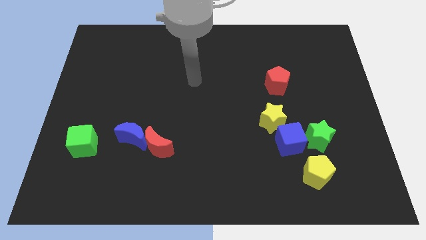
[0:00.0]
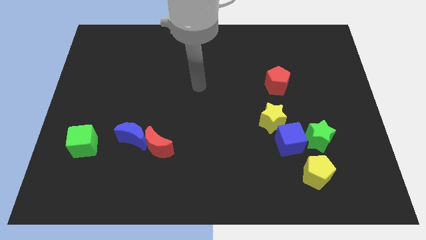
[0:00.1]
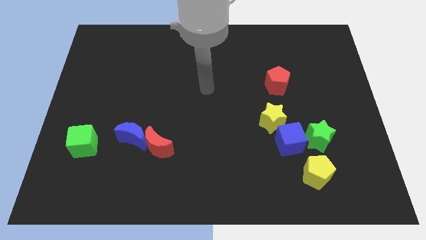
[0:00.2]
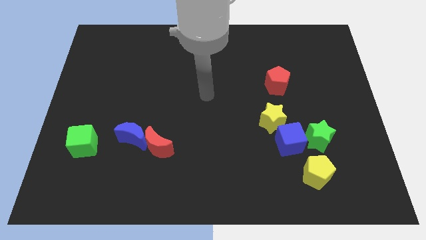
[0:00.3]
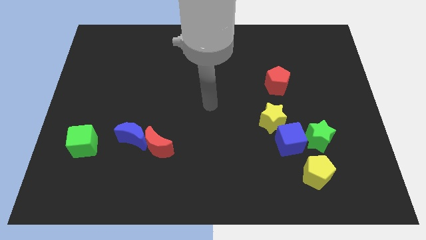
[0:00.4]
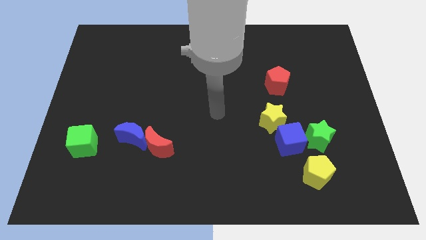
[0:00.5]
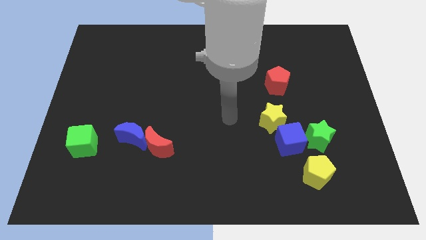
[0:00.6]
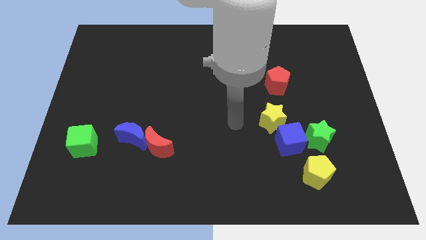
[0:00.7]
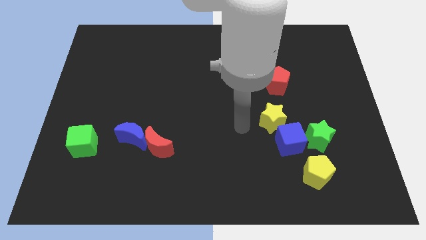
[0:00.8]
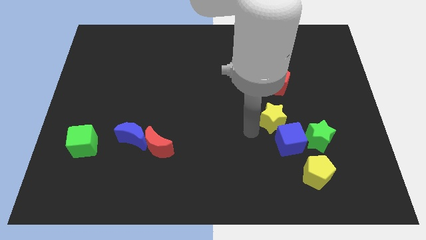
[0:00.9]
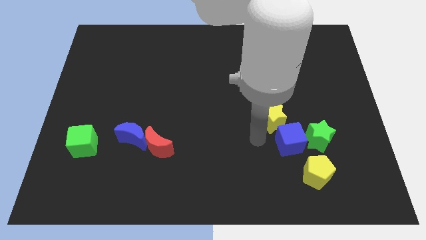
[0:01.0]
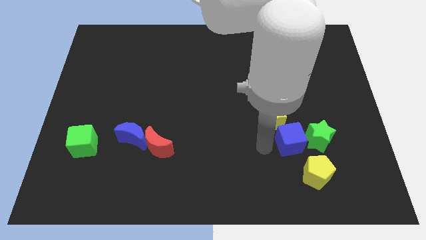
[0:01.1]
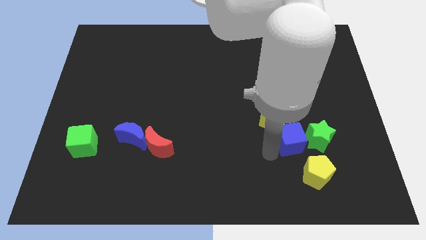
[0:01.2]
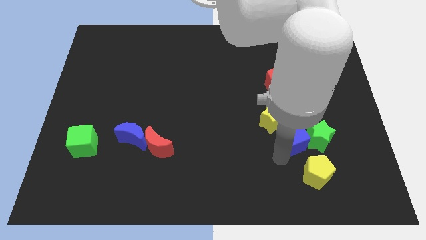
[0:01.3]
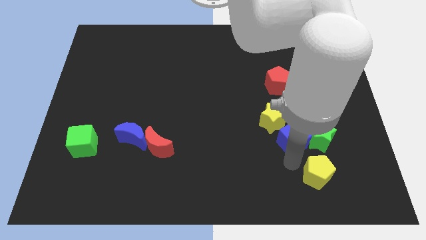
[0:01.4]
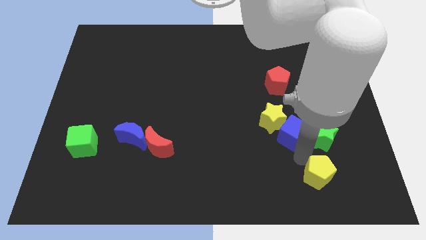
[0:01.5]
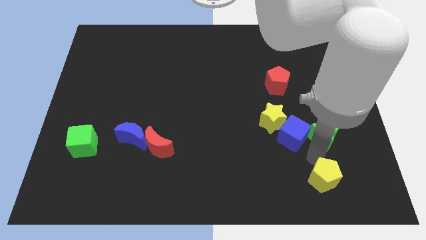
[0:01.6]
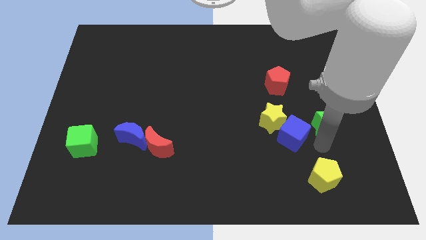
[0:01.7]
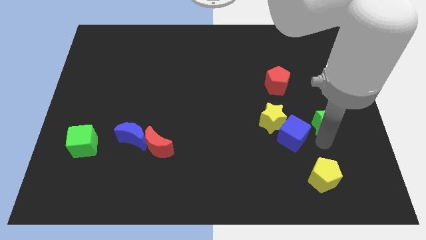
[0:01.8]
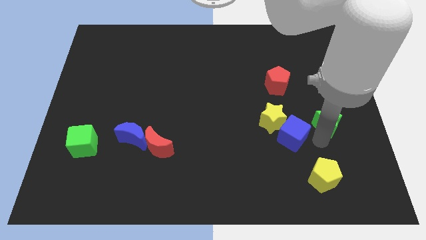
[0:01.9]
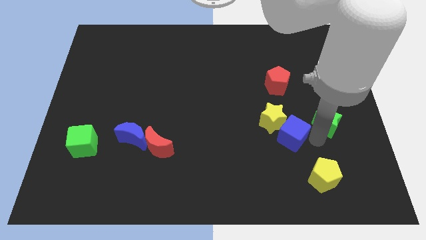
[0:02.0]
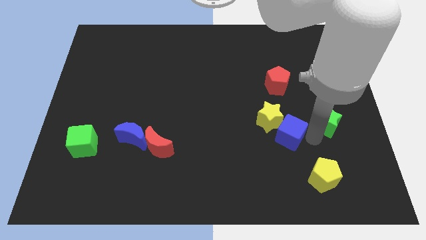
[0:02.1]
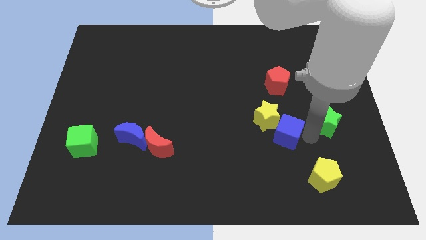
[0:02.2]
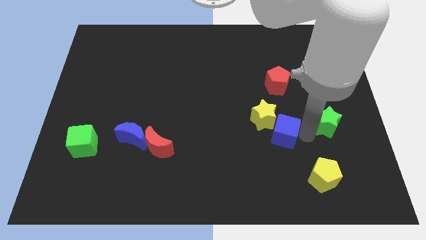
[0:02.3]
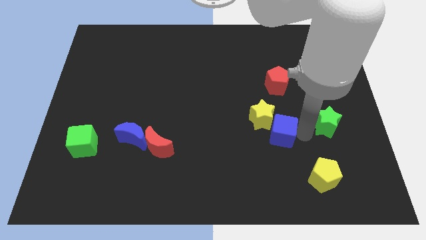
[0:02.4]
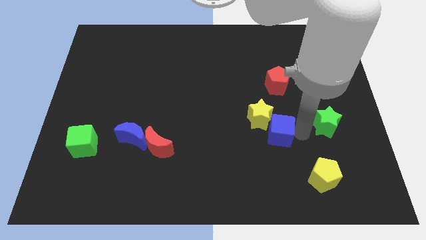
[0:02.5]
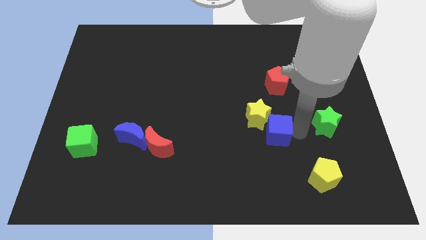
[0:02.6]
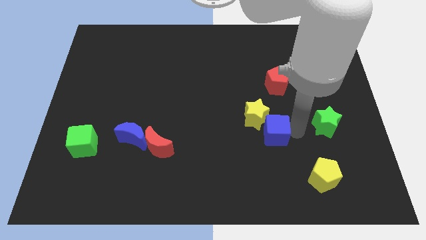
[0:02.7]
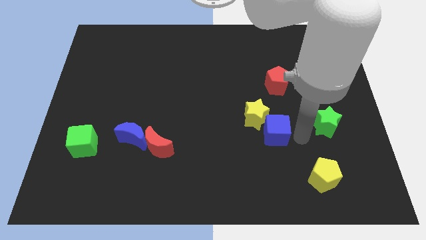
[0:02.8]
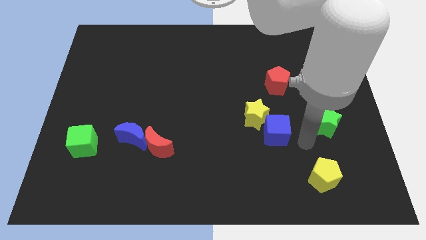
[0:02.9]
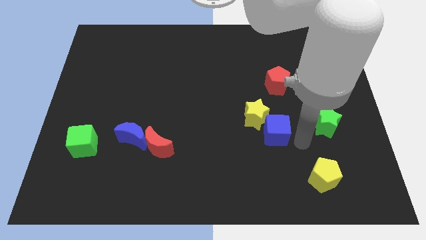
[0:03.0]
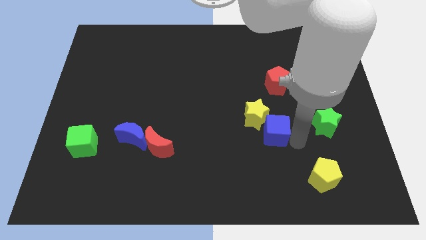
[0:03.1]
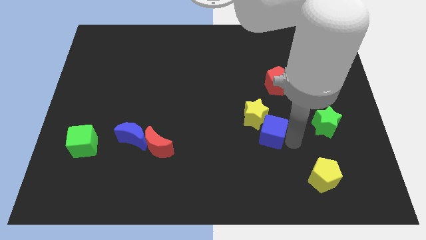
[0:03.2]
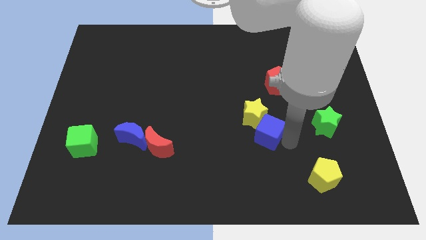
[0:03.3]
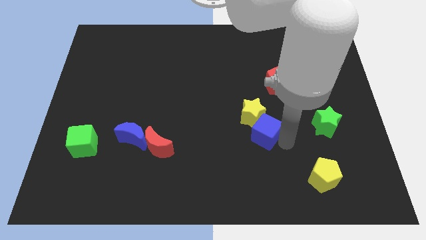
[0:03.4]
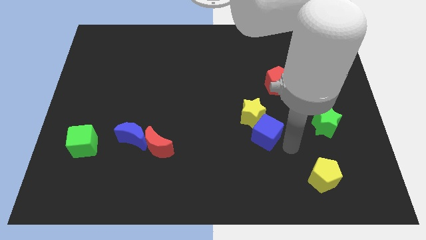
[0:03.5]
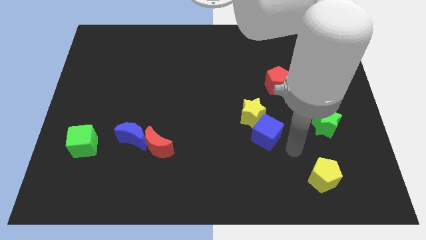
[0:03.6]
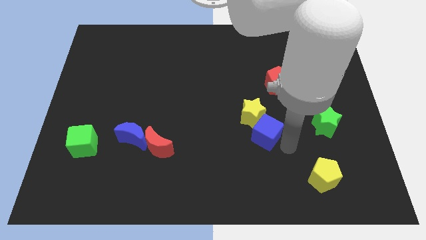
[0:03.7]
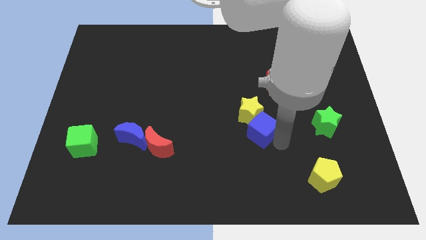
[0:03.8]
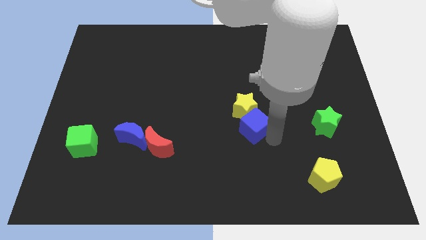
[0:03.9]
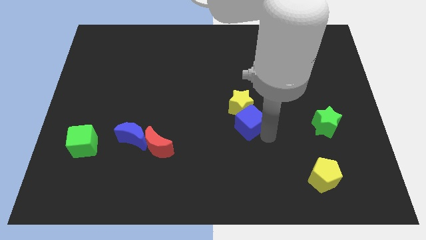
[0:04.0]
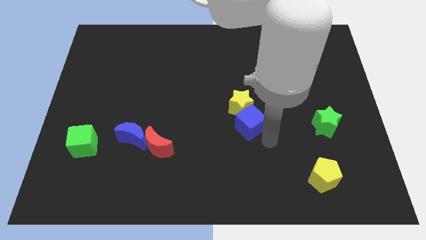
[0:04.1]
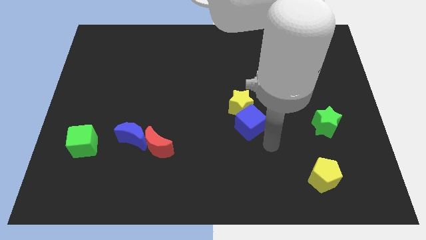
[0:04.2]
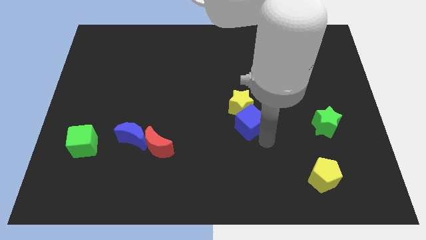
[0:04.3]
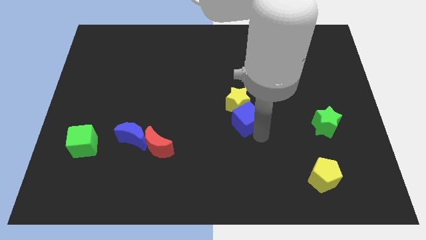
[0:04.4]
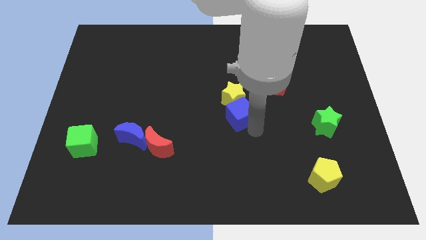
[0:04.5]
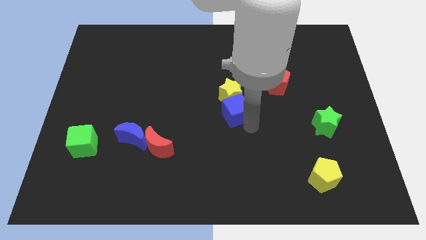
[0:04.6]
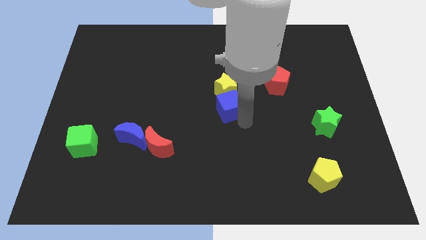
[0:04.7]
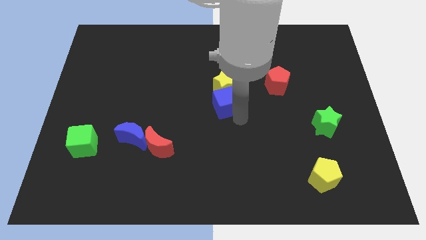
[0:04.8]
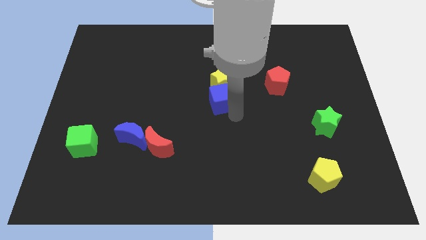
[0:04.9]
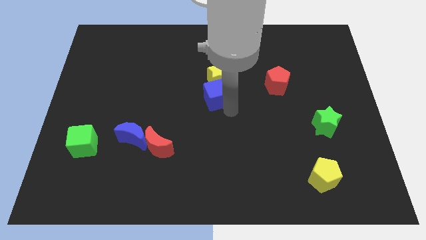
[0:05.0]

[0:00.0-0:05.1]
slide the blue cube up and then left

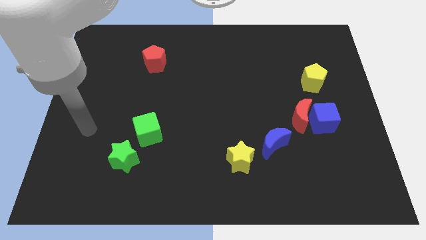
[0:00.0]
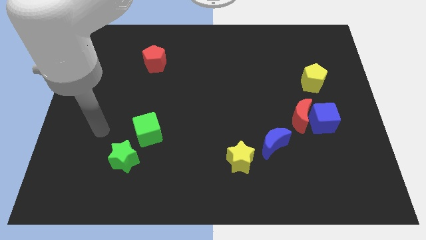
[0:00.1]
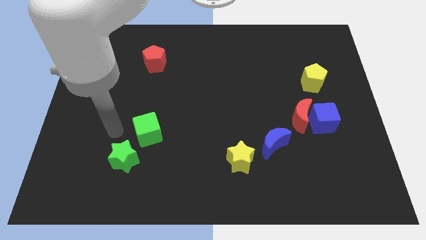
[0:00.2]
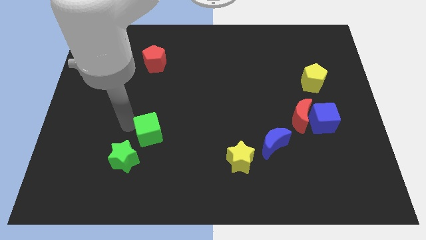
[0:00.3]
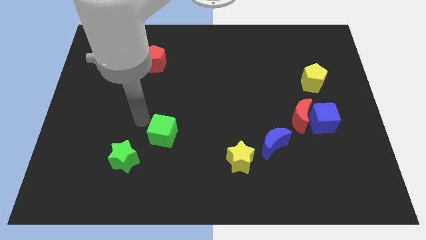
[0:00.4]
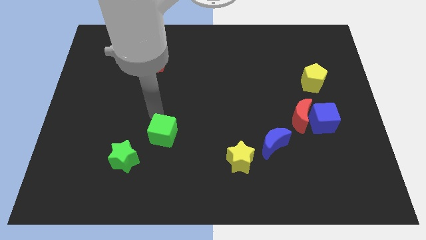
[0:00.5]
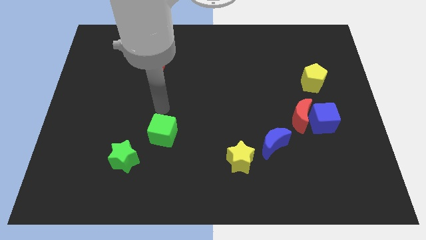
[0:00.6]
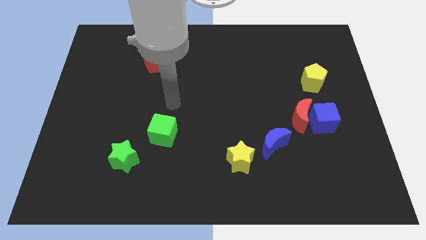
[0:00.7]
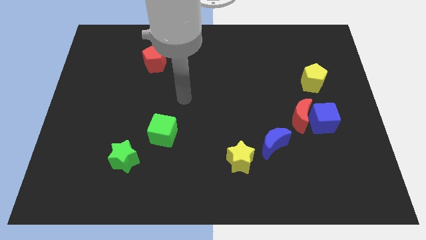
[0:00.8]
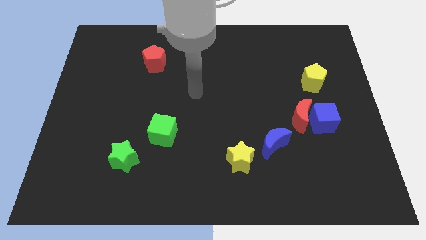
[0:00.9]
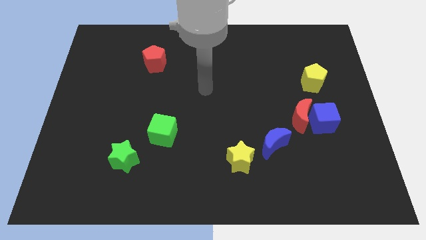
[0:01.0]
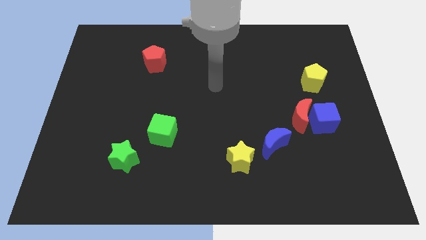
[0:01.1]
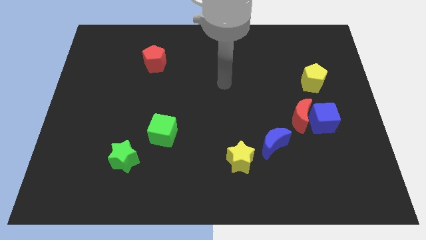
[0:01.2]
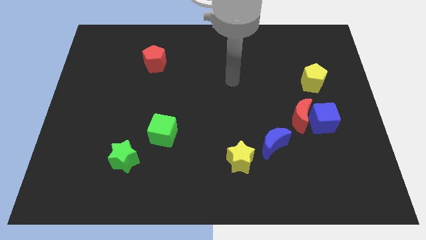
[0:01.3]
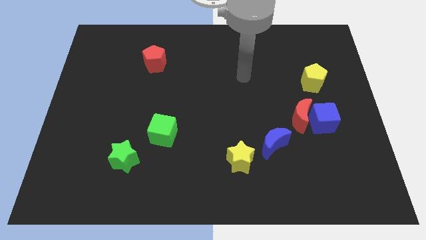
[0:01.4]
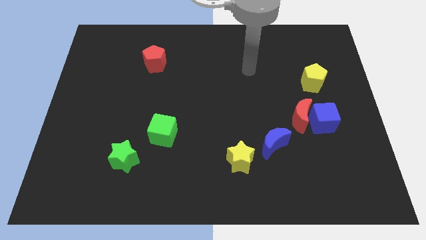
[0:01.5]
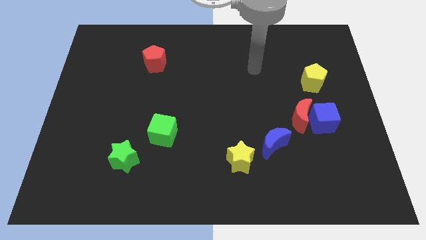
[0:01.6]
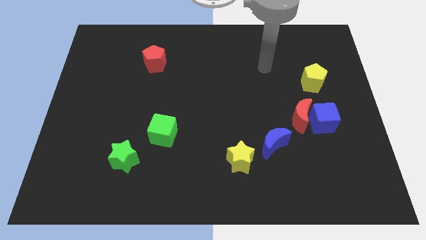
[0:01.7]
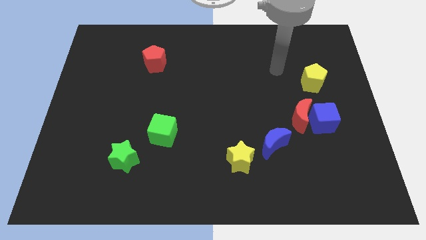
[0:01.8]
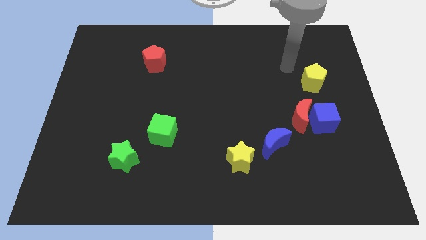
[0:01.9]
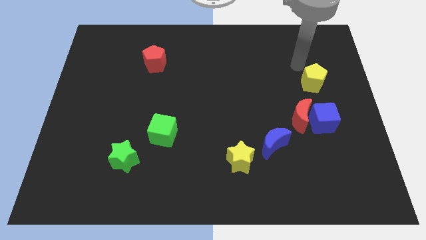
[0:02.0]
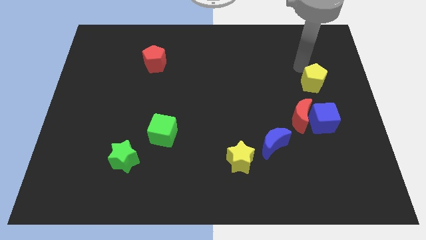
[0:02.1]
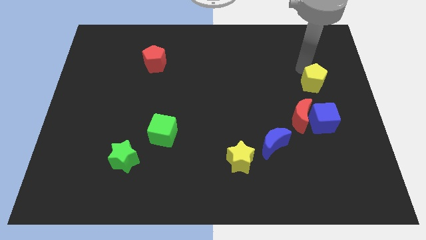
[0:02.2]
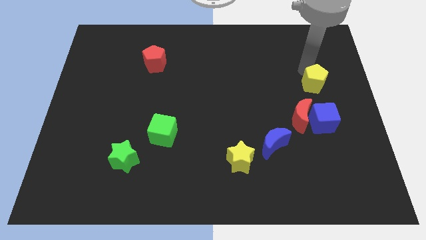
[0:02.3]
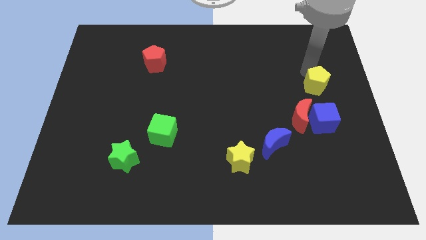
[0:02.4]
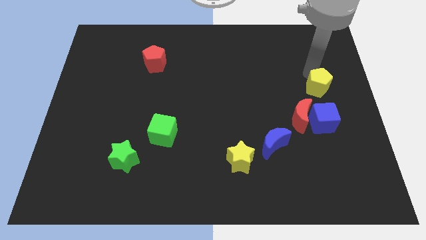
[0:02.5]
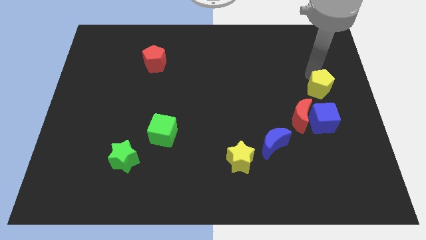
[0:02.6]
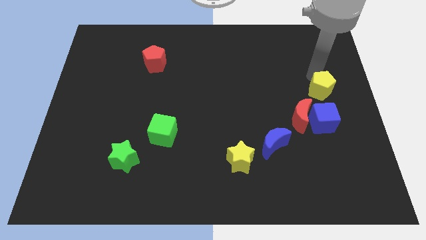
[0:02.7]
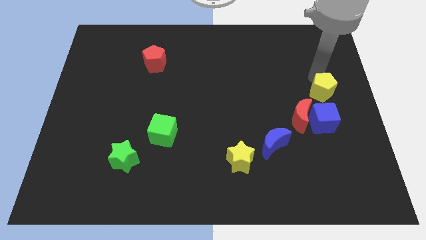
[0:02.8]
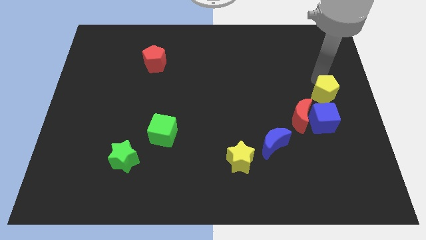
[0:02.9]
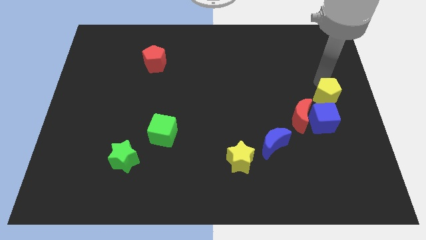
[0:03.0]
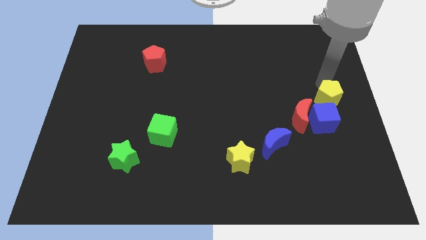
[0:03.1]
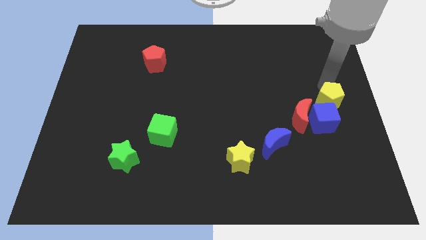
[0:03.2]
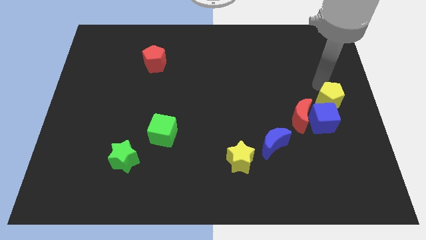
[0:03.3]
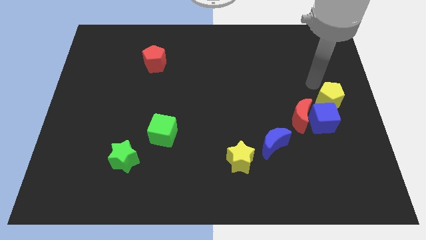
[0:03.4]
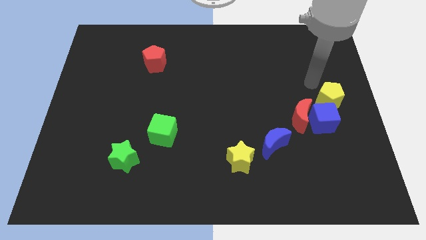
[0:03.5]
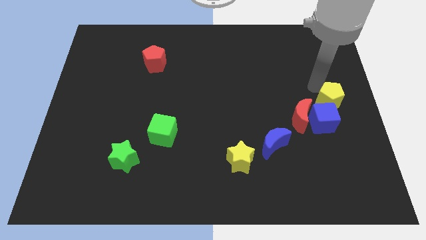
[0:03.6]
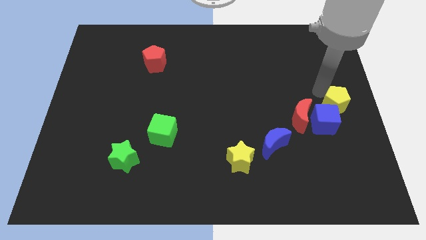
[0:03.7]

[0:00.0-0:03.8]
move the yellow pentagon slightly down
